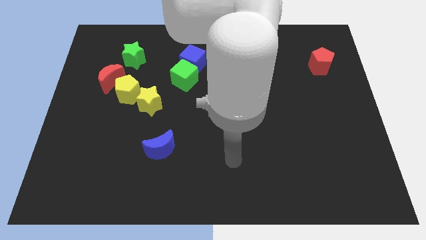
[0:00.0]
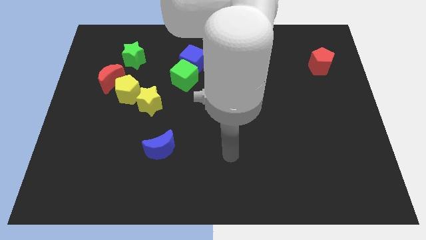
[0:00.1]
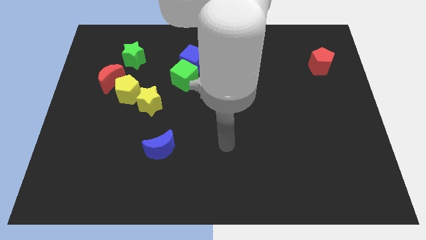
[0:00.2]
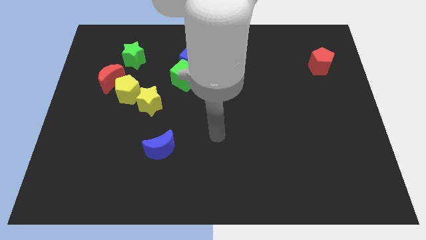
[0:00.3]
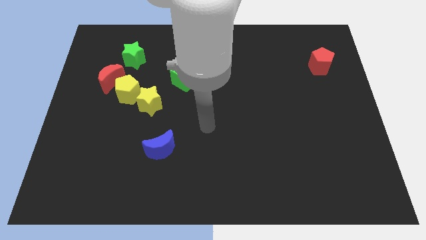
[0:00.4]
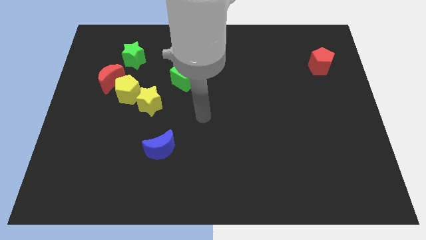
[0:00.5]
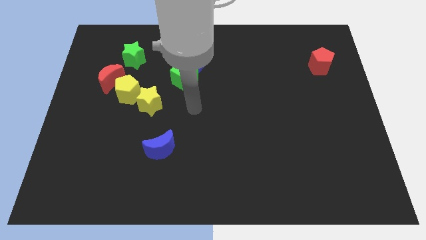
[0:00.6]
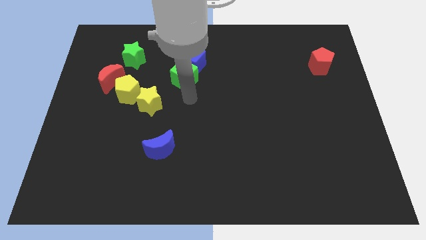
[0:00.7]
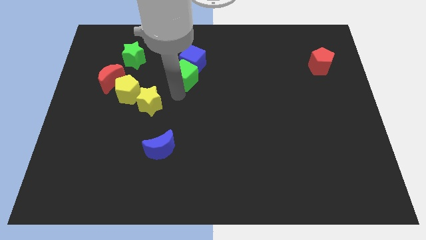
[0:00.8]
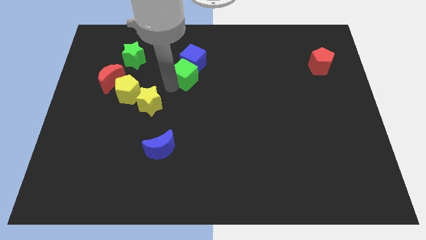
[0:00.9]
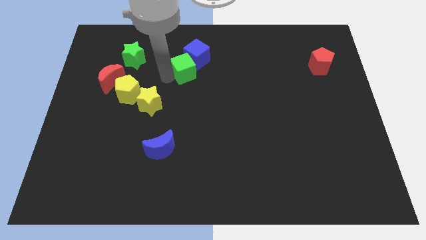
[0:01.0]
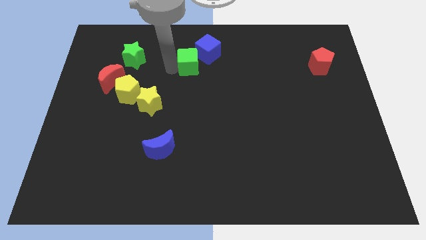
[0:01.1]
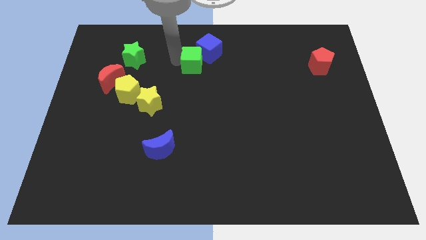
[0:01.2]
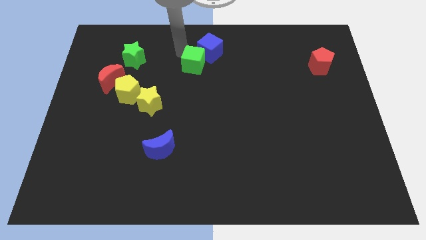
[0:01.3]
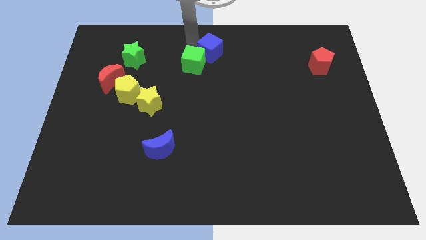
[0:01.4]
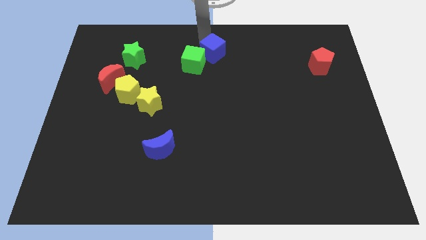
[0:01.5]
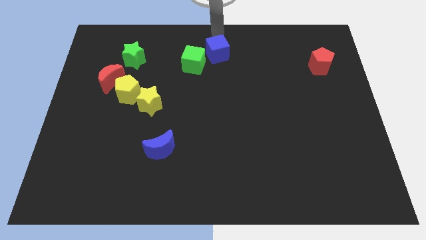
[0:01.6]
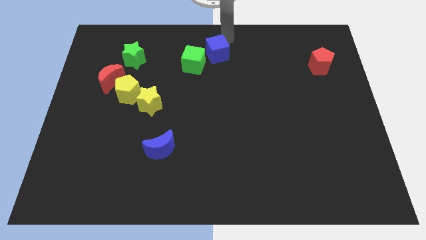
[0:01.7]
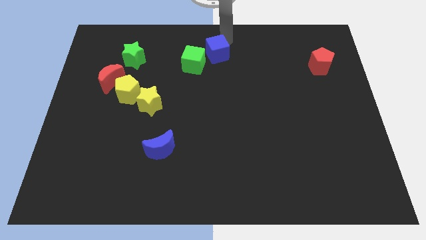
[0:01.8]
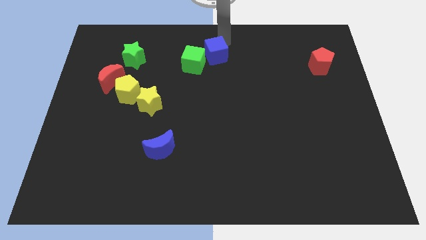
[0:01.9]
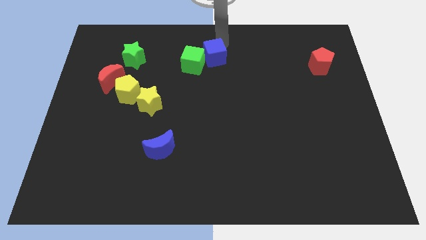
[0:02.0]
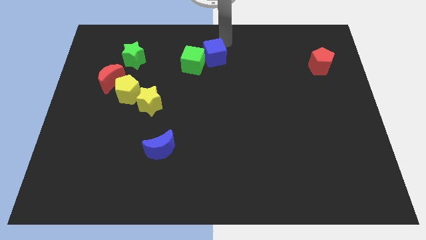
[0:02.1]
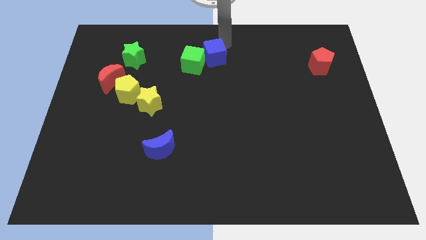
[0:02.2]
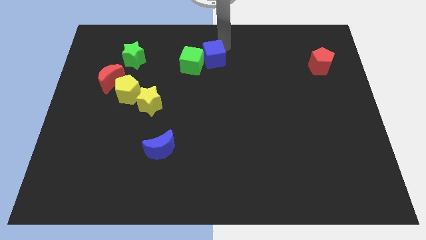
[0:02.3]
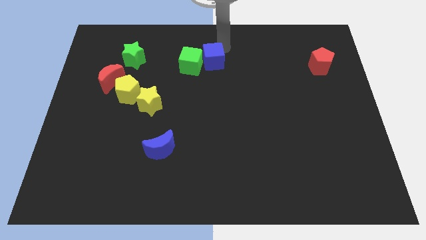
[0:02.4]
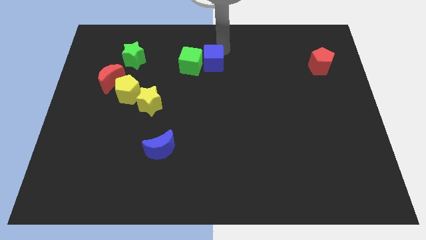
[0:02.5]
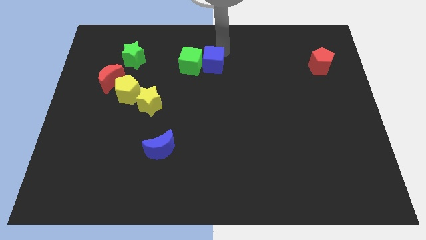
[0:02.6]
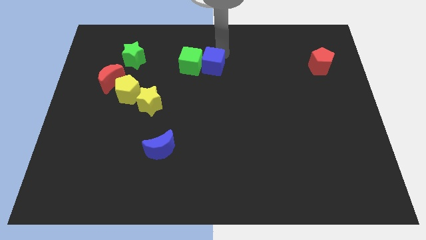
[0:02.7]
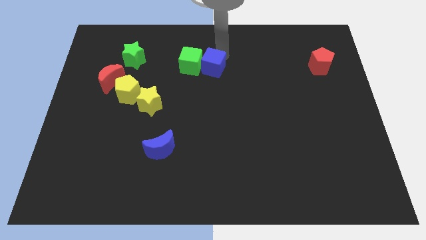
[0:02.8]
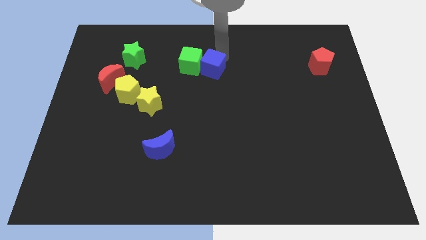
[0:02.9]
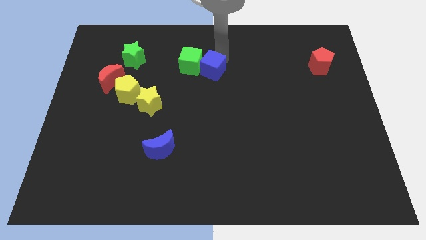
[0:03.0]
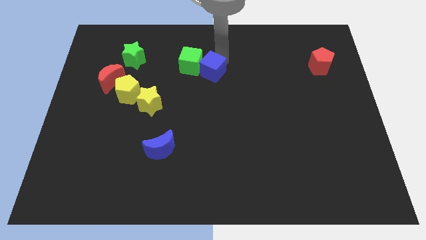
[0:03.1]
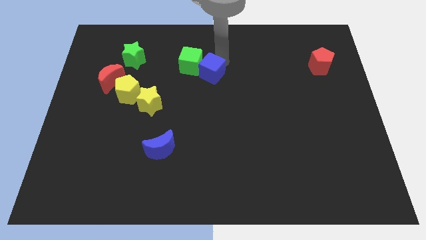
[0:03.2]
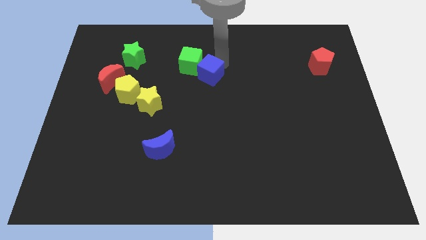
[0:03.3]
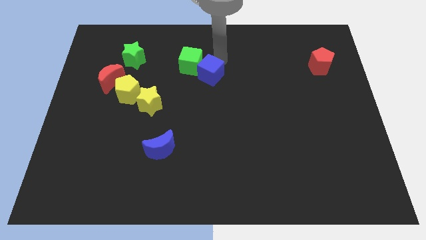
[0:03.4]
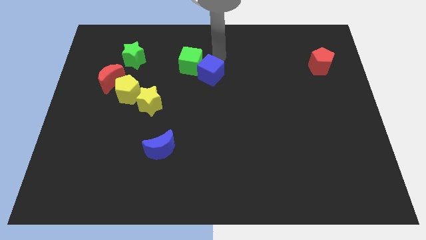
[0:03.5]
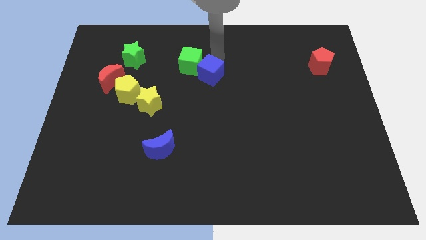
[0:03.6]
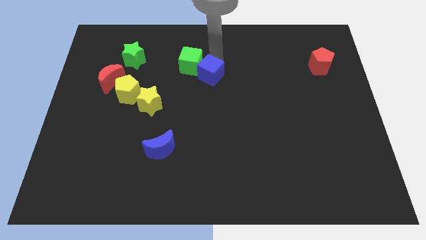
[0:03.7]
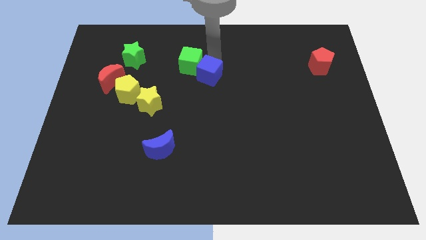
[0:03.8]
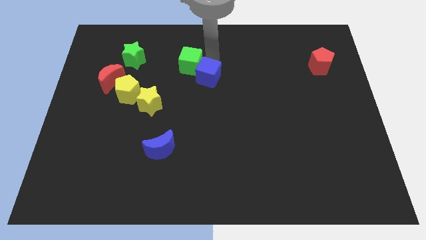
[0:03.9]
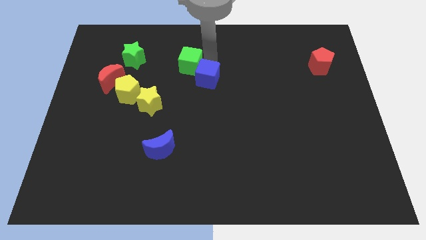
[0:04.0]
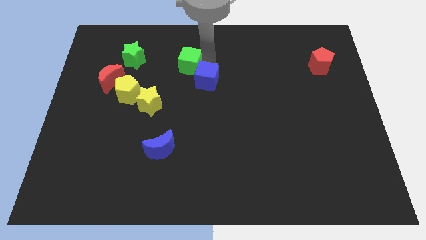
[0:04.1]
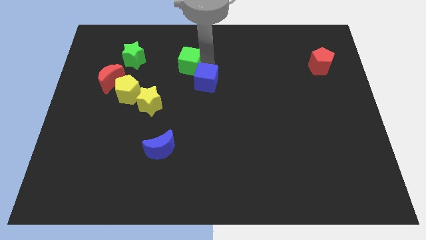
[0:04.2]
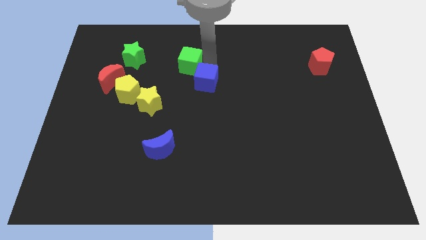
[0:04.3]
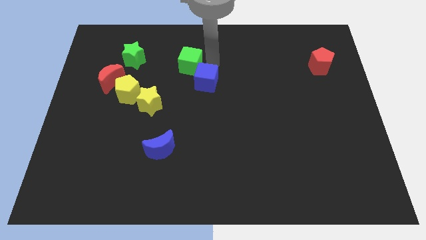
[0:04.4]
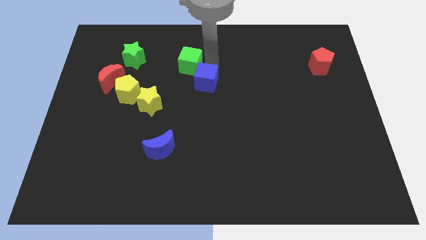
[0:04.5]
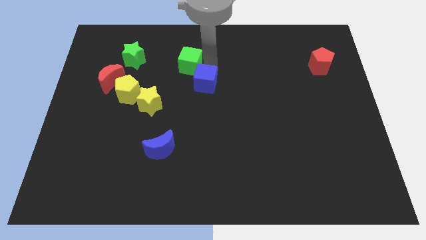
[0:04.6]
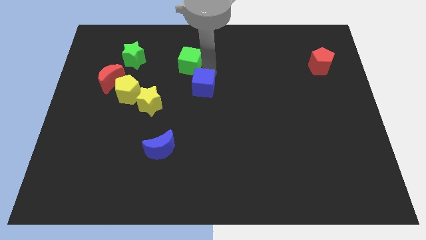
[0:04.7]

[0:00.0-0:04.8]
slide the blue cube a little bit down

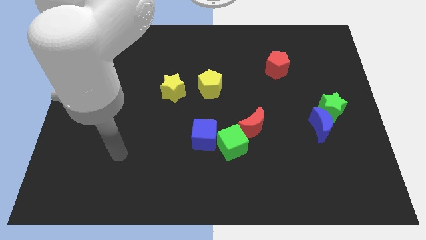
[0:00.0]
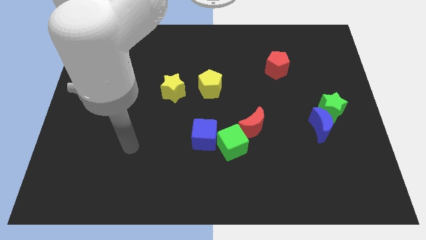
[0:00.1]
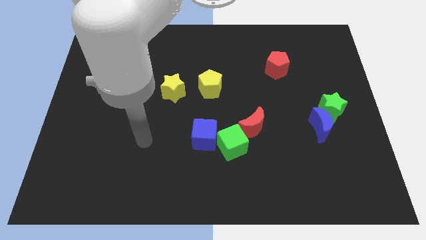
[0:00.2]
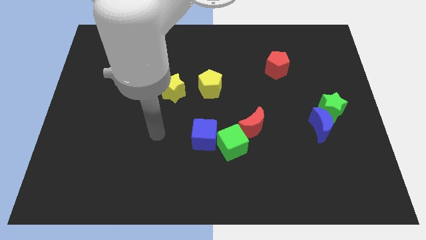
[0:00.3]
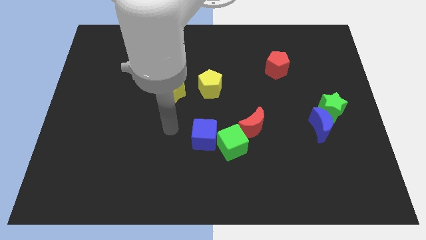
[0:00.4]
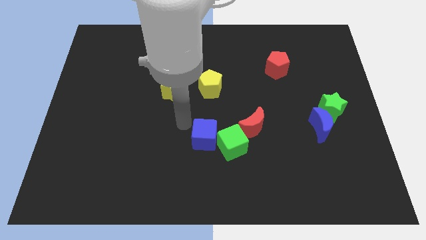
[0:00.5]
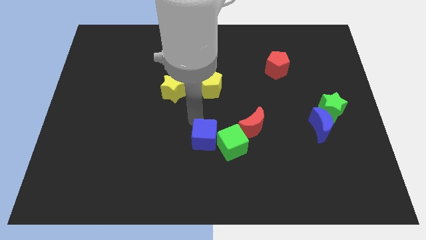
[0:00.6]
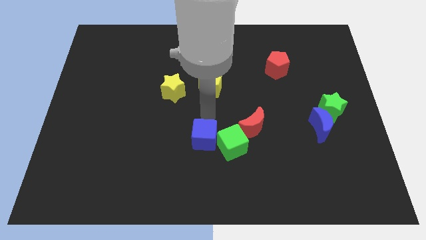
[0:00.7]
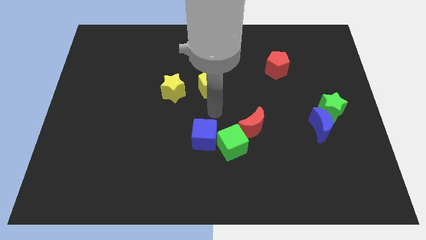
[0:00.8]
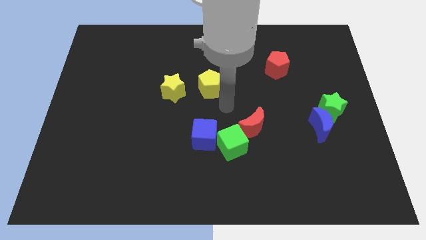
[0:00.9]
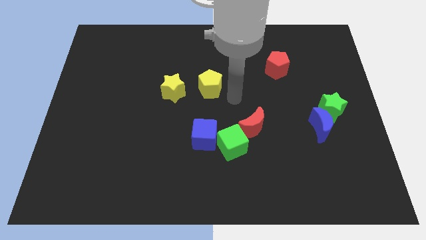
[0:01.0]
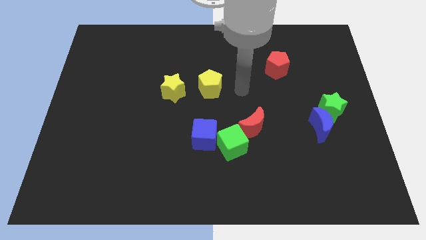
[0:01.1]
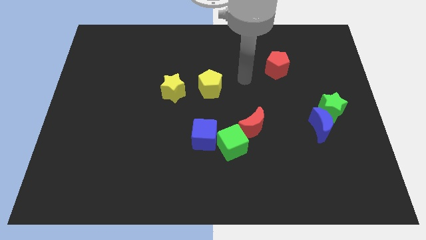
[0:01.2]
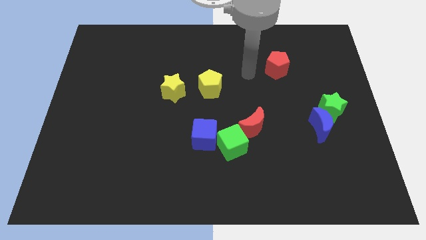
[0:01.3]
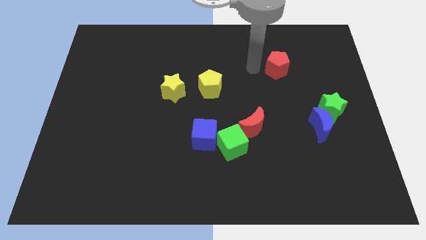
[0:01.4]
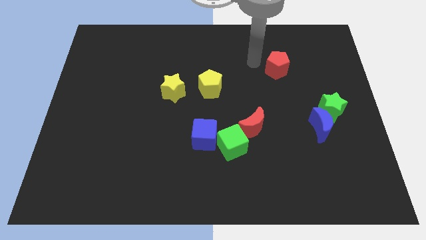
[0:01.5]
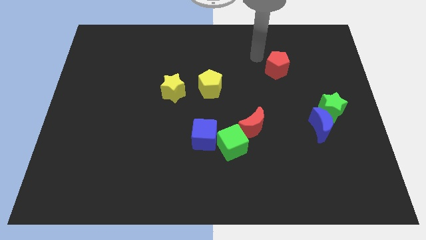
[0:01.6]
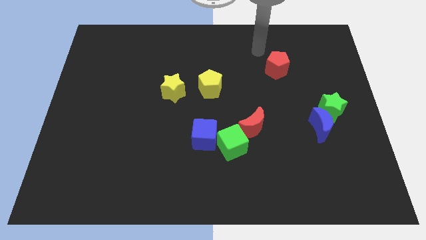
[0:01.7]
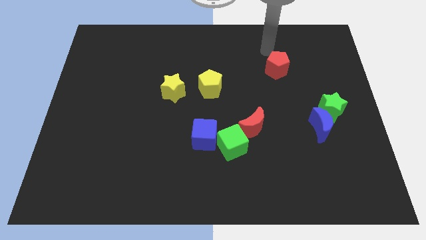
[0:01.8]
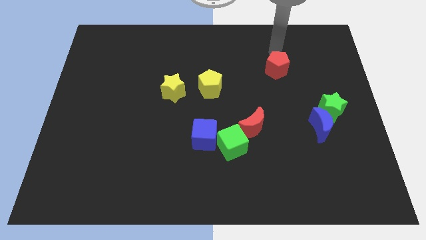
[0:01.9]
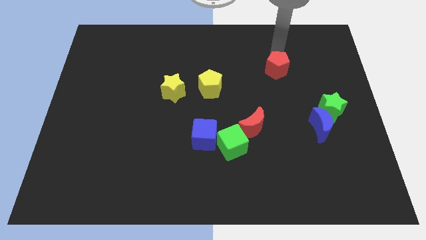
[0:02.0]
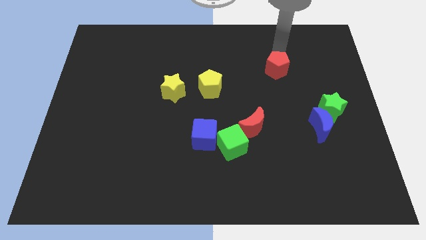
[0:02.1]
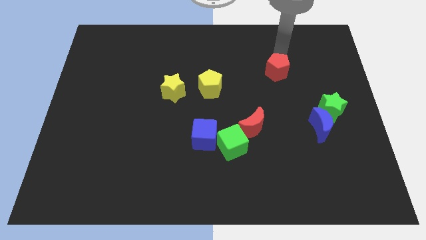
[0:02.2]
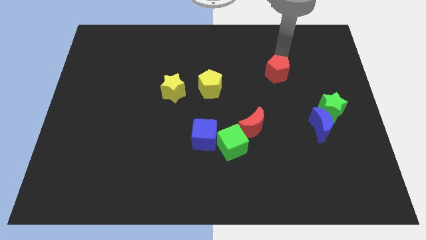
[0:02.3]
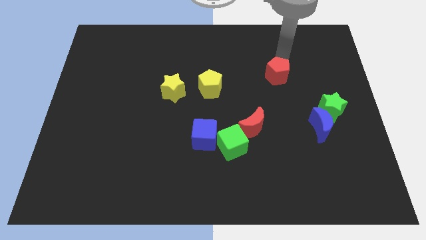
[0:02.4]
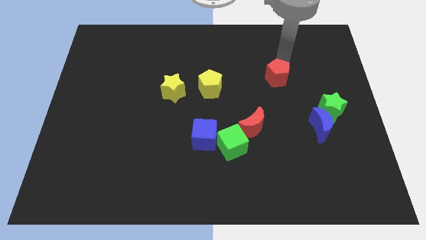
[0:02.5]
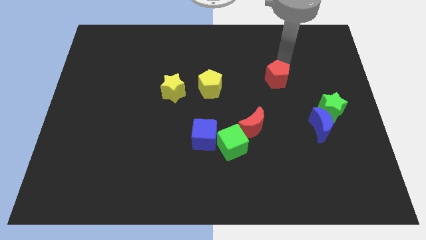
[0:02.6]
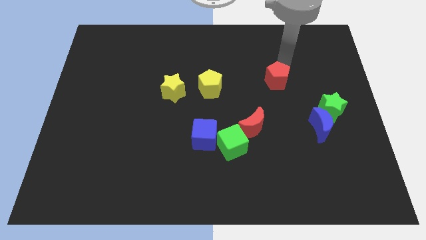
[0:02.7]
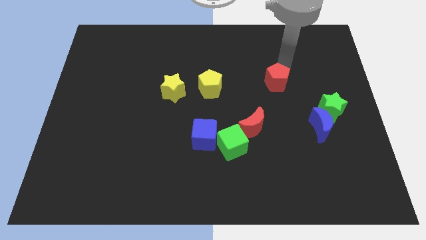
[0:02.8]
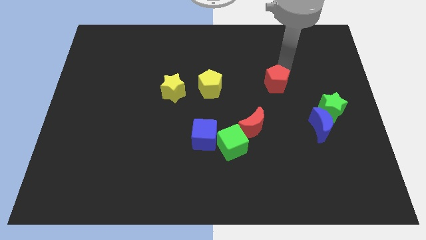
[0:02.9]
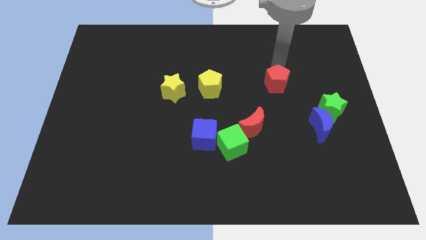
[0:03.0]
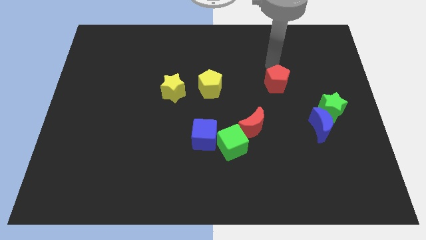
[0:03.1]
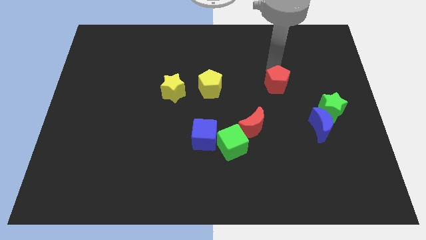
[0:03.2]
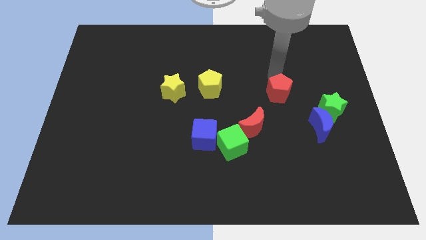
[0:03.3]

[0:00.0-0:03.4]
move the red pentagon downwards slightly
